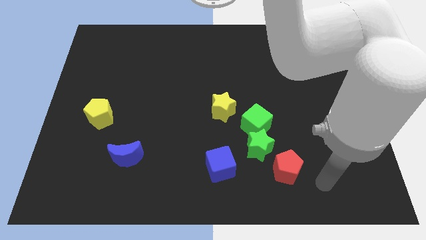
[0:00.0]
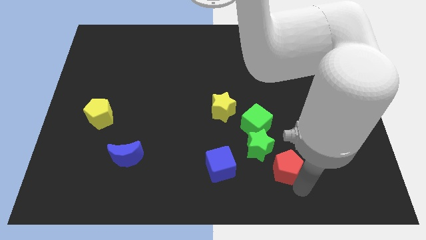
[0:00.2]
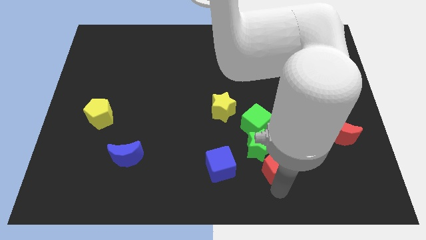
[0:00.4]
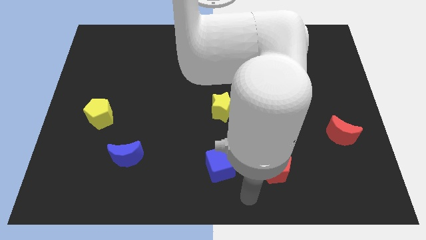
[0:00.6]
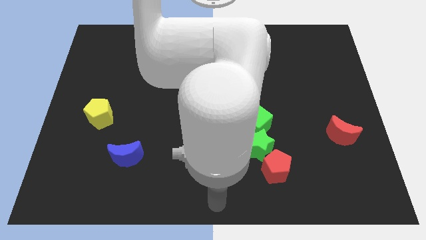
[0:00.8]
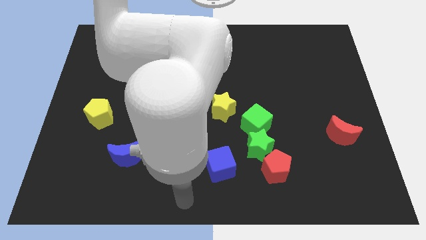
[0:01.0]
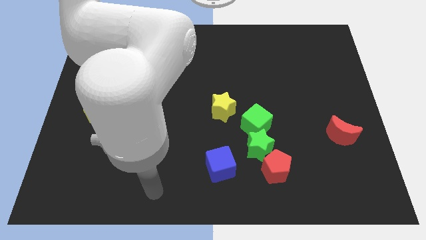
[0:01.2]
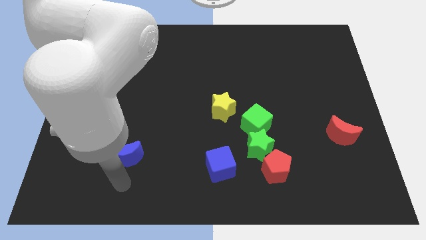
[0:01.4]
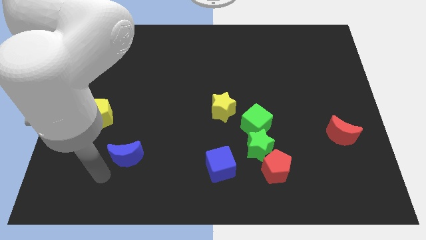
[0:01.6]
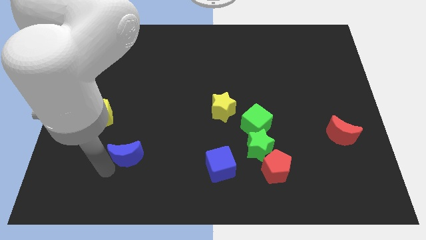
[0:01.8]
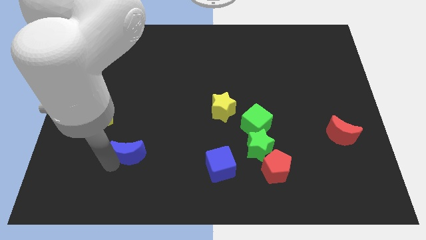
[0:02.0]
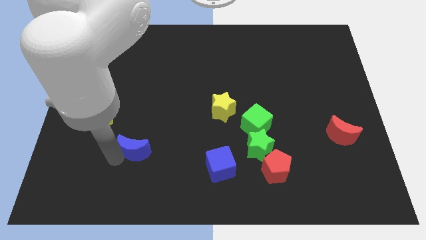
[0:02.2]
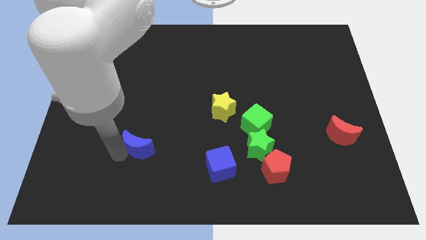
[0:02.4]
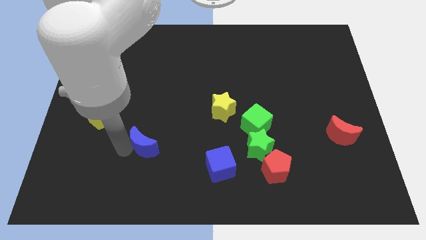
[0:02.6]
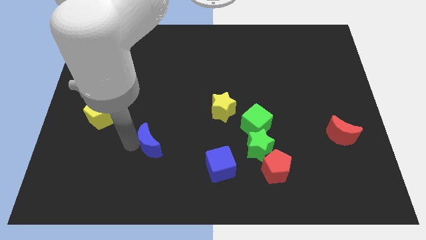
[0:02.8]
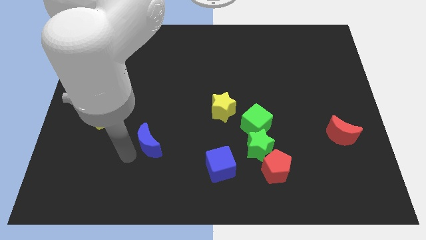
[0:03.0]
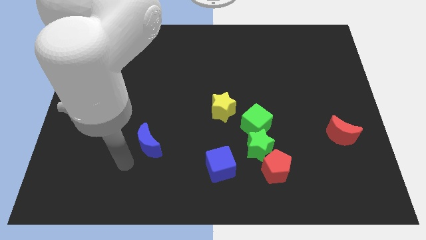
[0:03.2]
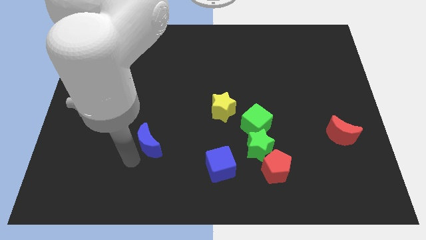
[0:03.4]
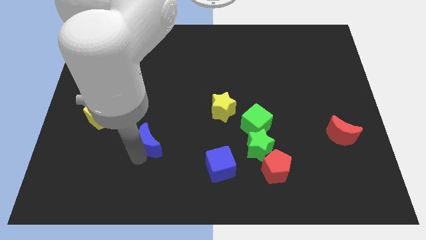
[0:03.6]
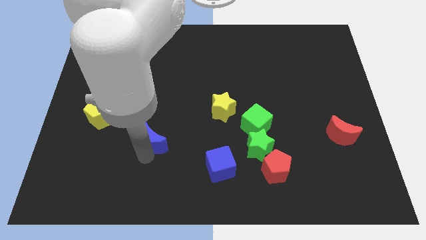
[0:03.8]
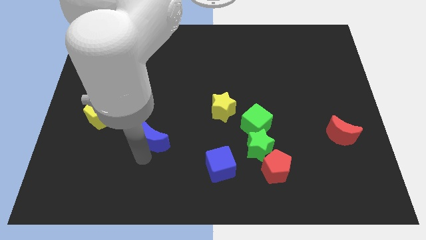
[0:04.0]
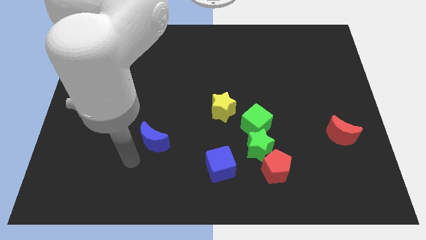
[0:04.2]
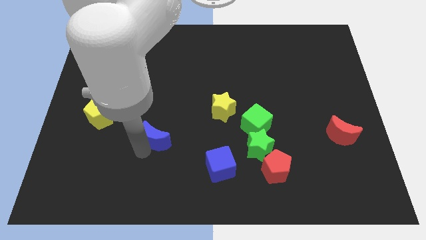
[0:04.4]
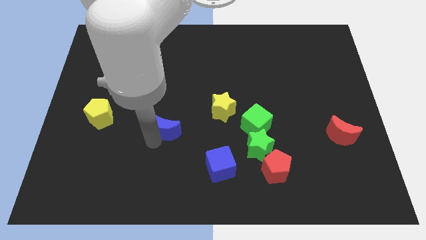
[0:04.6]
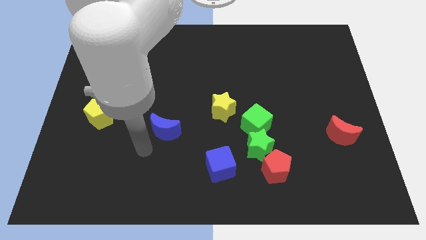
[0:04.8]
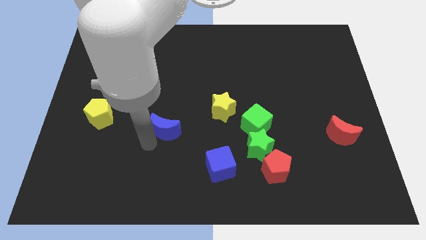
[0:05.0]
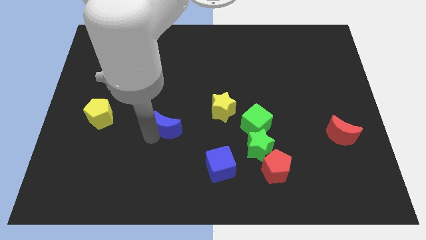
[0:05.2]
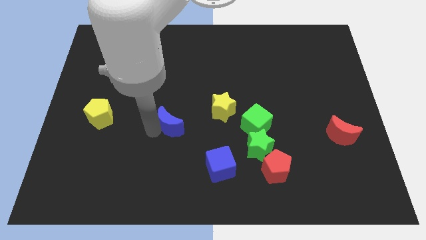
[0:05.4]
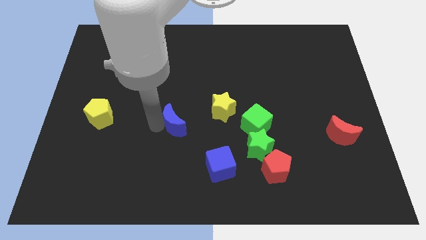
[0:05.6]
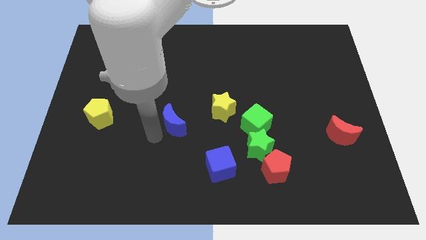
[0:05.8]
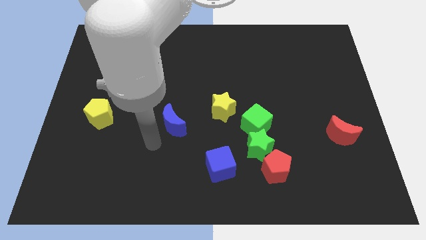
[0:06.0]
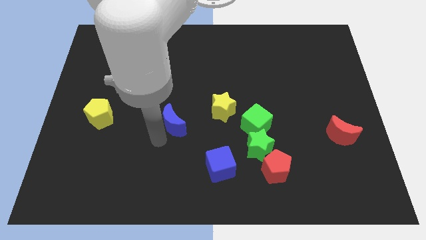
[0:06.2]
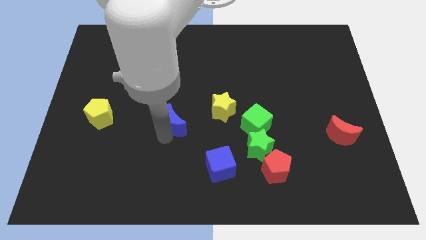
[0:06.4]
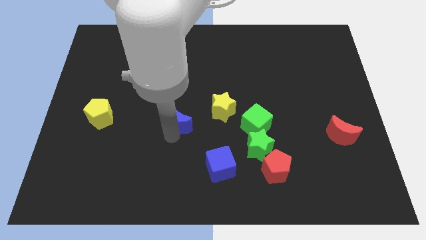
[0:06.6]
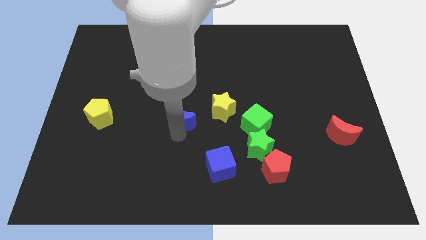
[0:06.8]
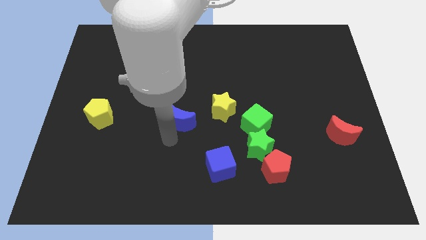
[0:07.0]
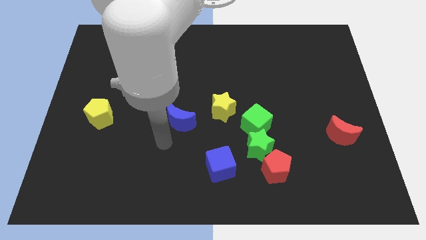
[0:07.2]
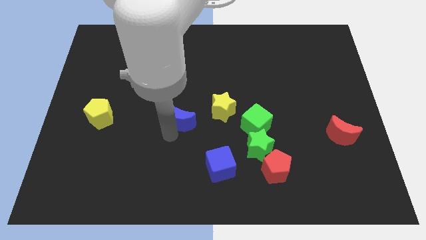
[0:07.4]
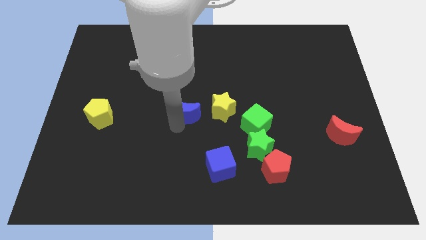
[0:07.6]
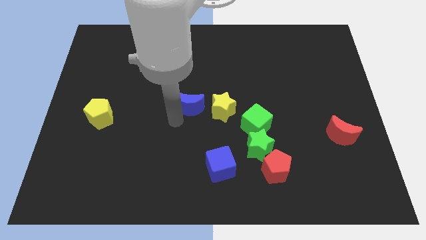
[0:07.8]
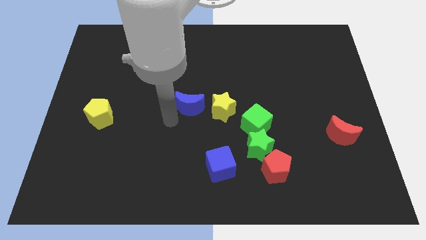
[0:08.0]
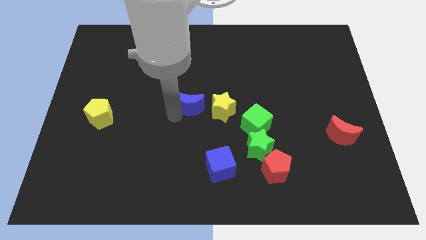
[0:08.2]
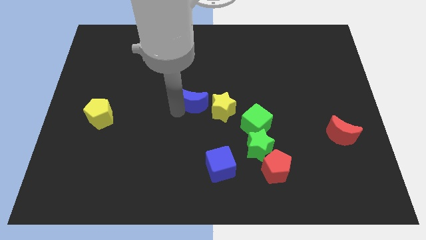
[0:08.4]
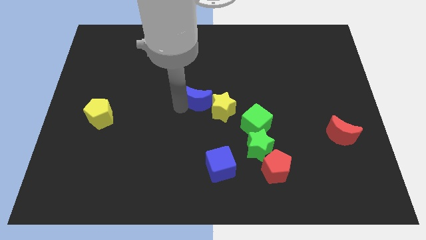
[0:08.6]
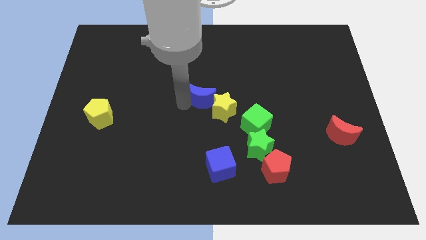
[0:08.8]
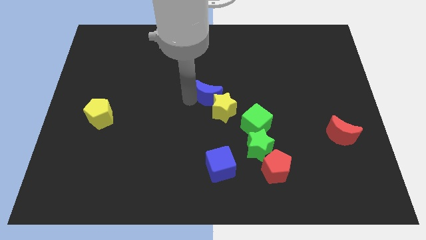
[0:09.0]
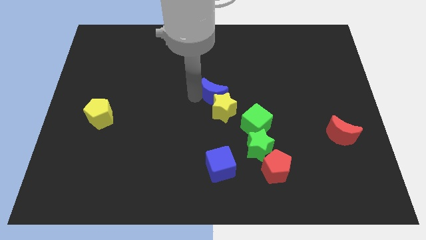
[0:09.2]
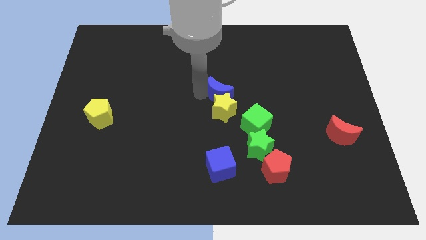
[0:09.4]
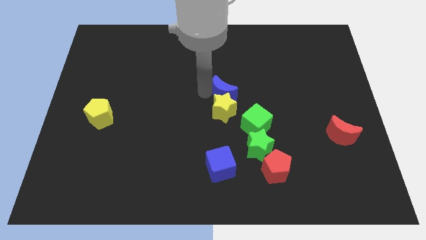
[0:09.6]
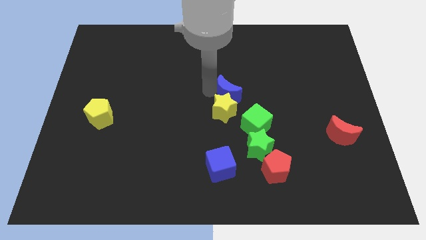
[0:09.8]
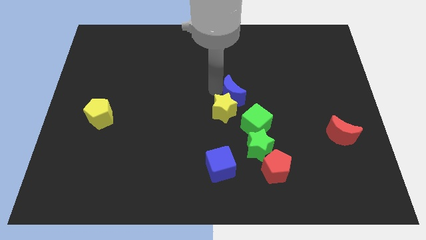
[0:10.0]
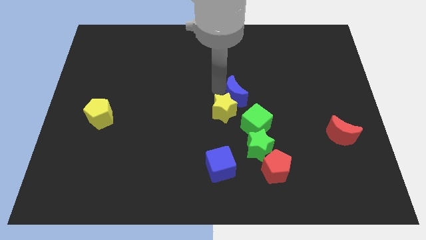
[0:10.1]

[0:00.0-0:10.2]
slide the blue moon above the green cube

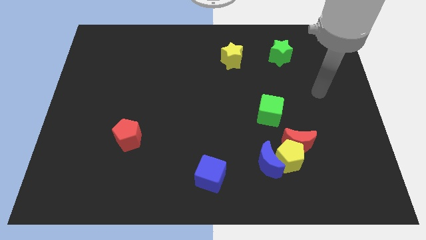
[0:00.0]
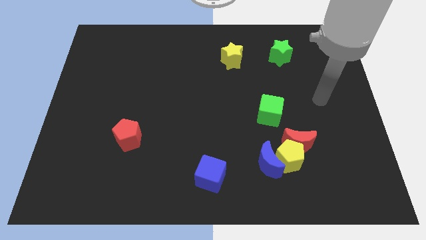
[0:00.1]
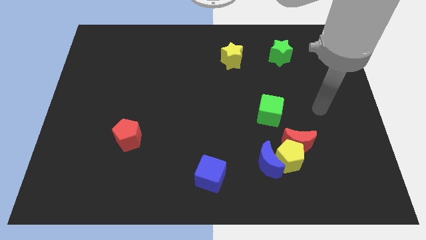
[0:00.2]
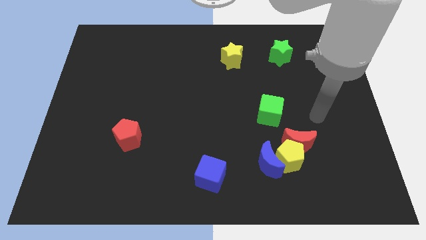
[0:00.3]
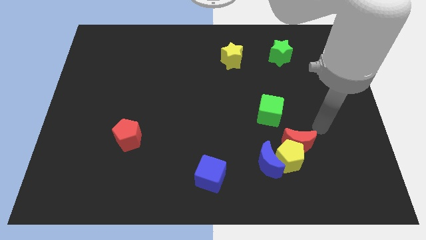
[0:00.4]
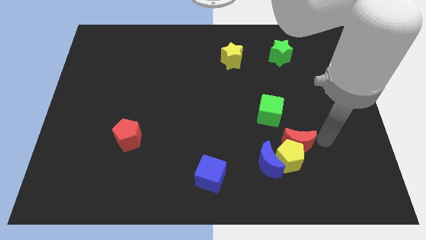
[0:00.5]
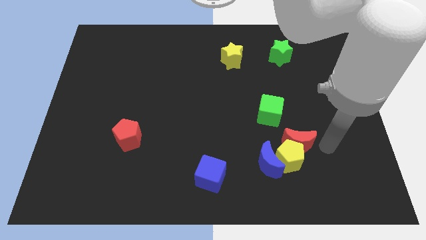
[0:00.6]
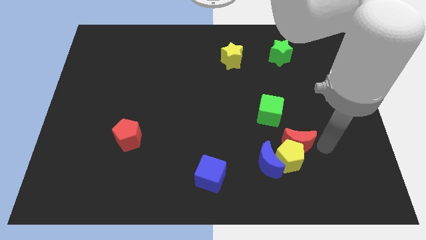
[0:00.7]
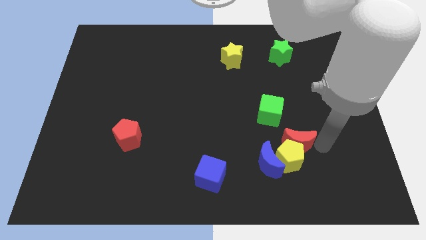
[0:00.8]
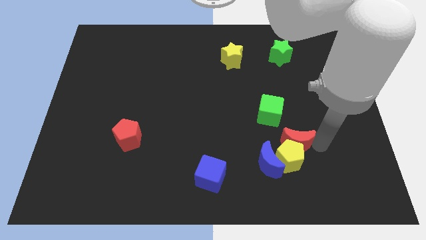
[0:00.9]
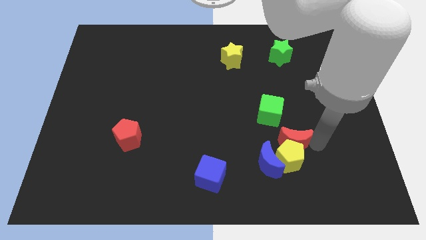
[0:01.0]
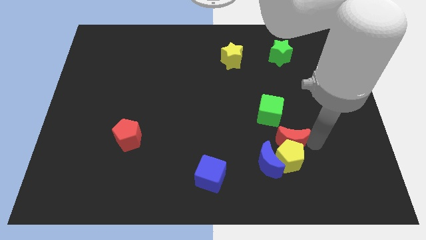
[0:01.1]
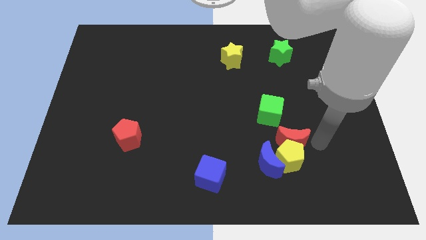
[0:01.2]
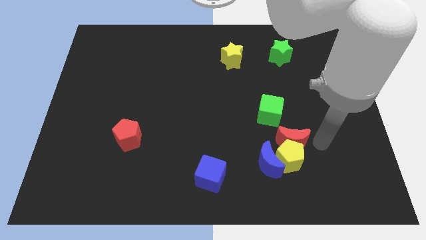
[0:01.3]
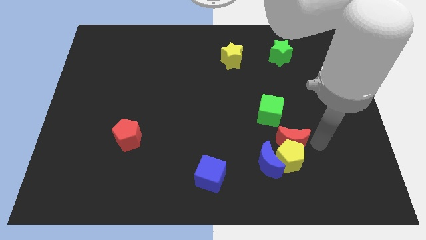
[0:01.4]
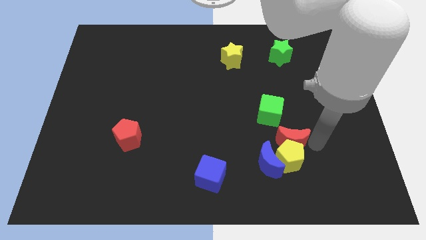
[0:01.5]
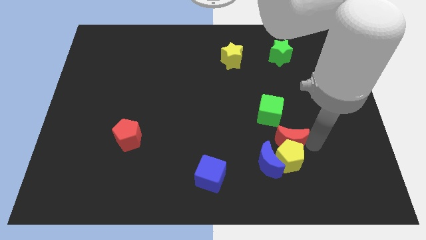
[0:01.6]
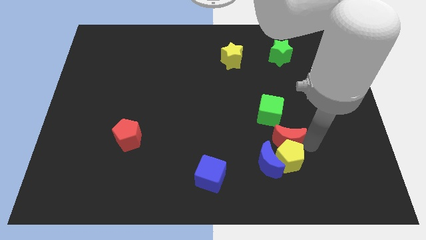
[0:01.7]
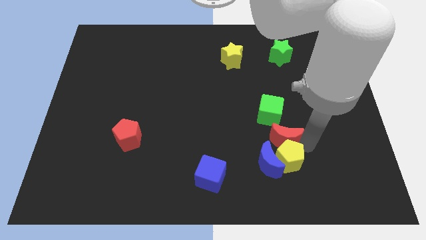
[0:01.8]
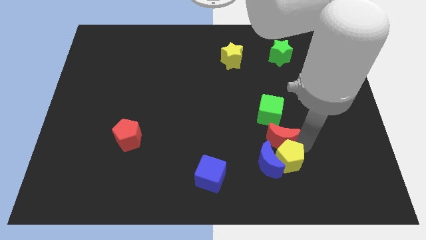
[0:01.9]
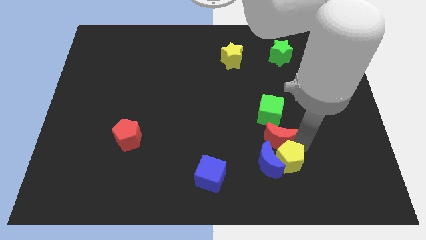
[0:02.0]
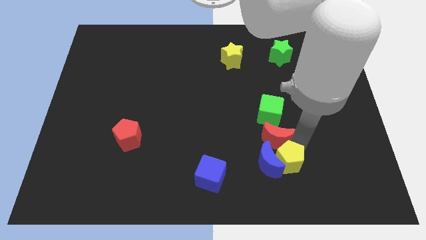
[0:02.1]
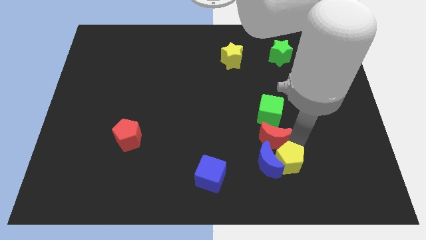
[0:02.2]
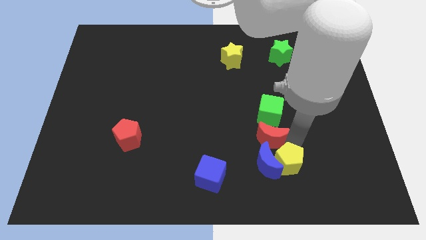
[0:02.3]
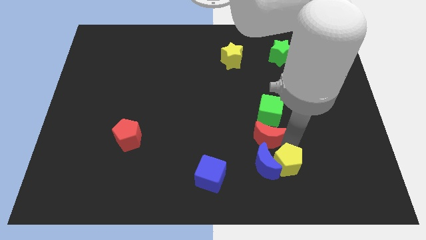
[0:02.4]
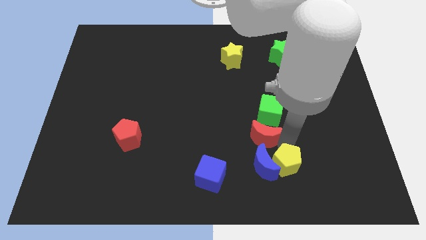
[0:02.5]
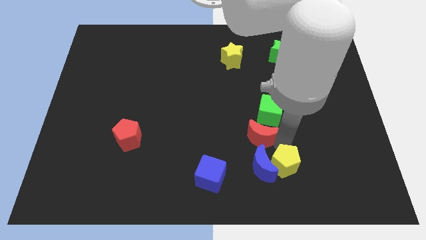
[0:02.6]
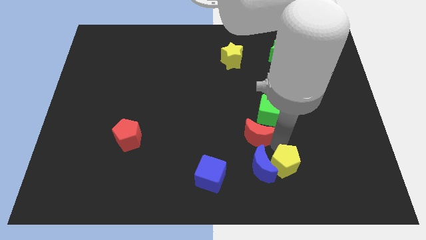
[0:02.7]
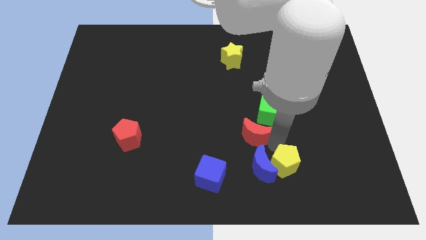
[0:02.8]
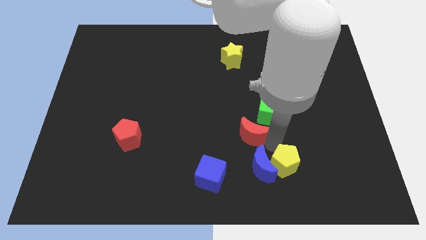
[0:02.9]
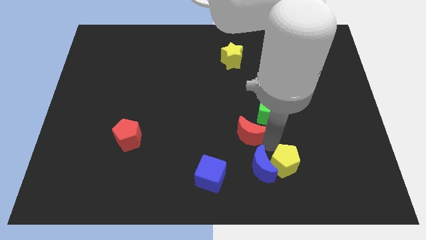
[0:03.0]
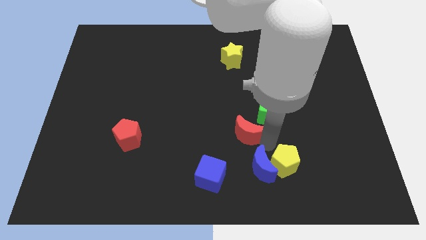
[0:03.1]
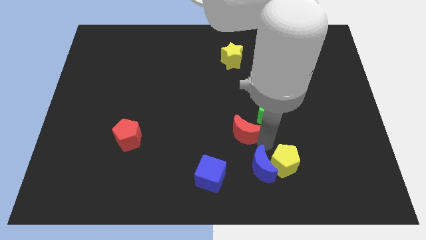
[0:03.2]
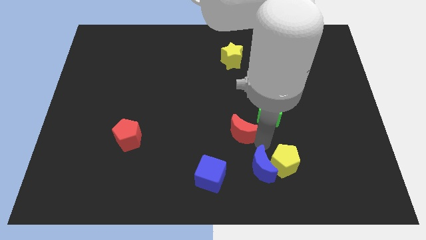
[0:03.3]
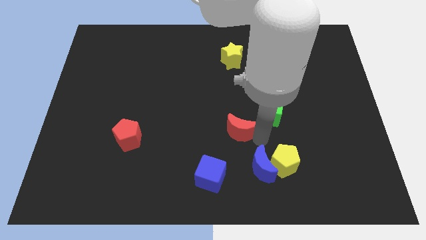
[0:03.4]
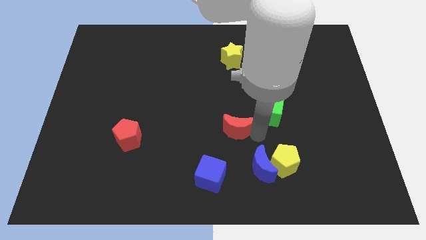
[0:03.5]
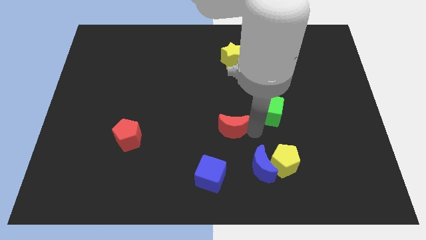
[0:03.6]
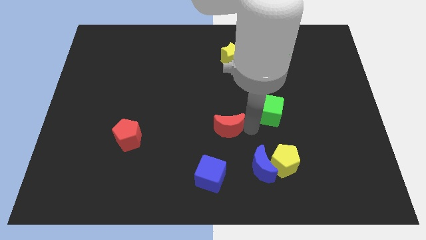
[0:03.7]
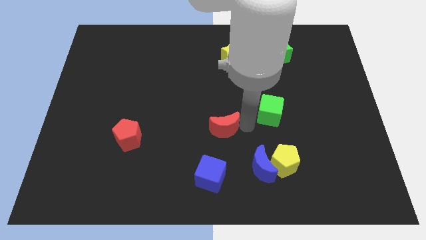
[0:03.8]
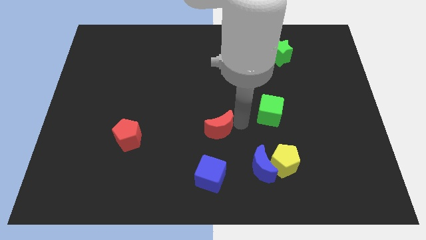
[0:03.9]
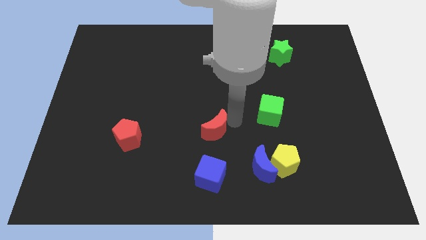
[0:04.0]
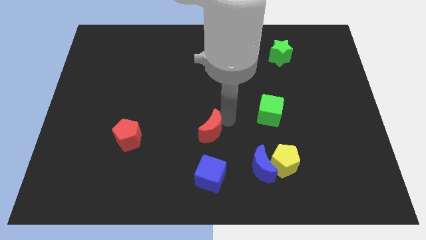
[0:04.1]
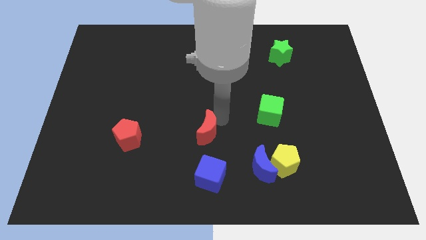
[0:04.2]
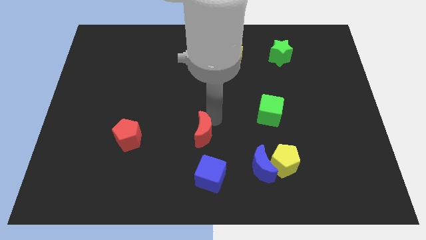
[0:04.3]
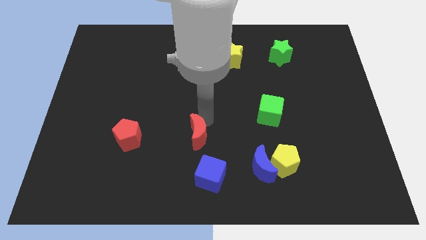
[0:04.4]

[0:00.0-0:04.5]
push the red moon right of the red pentagon
